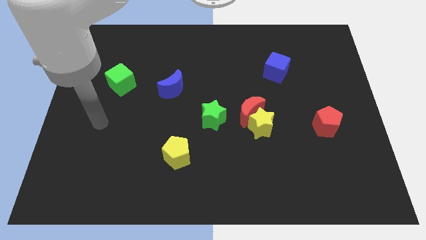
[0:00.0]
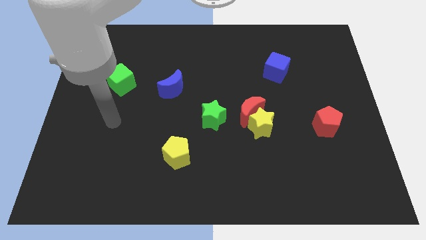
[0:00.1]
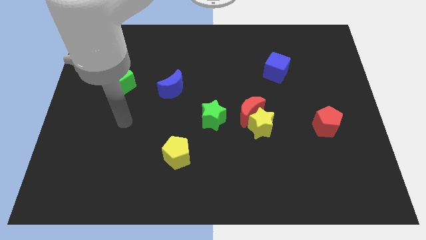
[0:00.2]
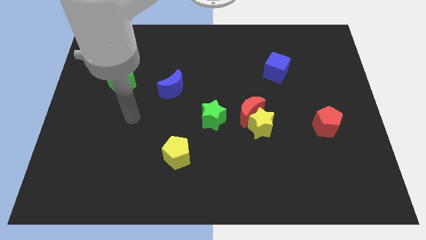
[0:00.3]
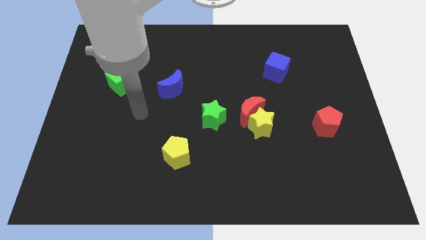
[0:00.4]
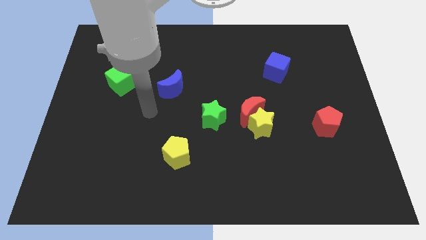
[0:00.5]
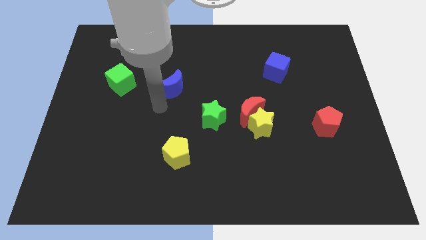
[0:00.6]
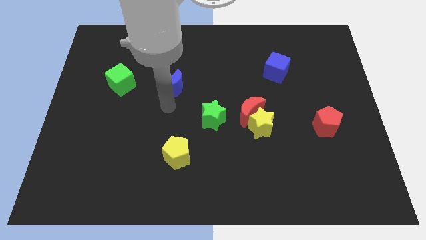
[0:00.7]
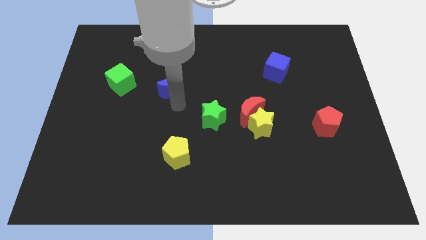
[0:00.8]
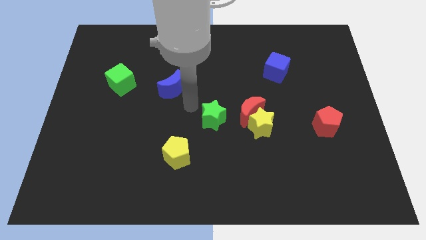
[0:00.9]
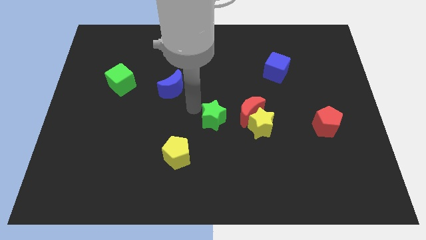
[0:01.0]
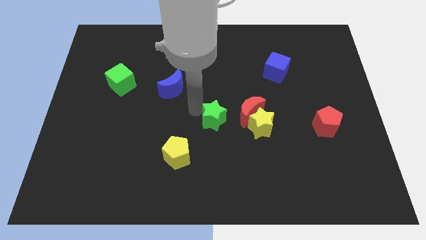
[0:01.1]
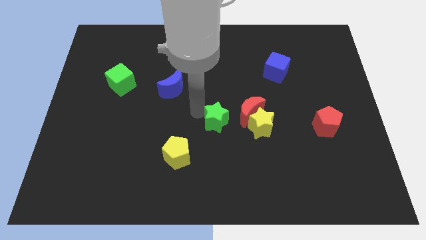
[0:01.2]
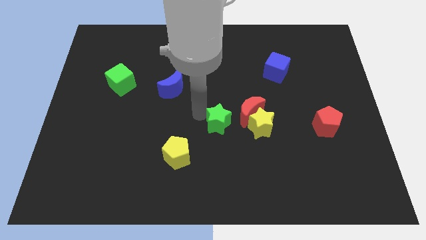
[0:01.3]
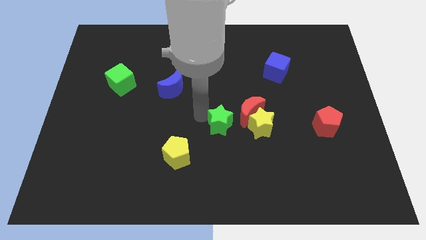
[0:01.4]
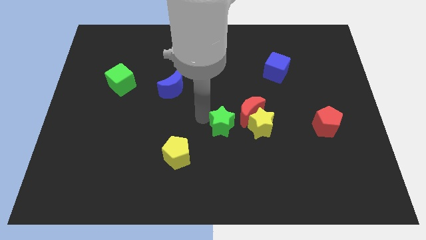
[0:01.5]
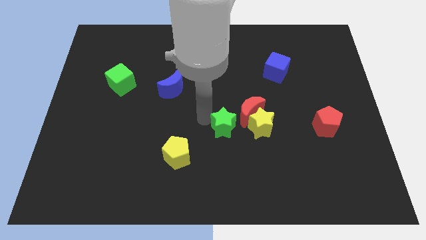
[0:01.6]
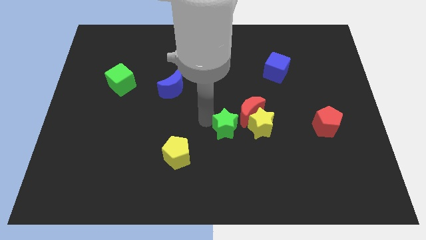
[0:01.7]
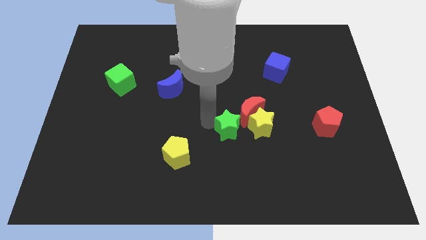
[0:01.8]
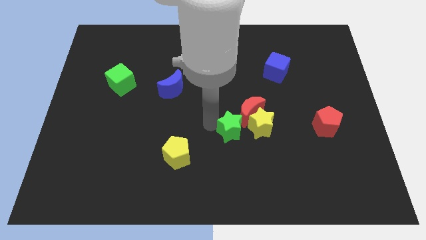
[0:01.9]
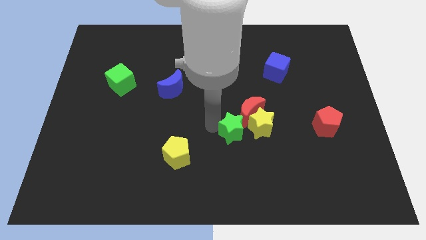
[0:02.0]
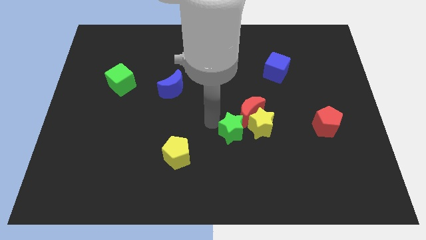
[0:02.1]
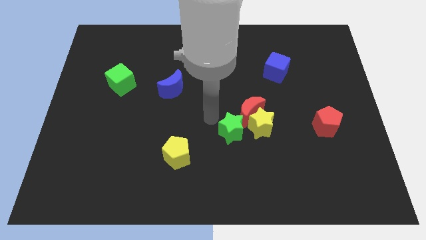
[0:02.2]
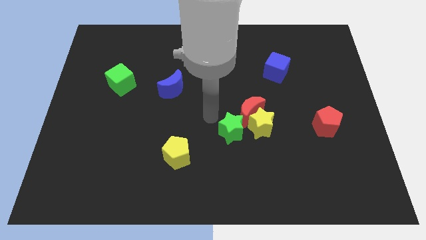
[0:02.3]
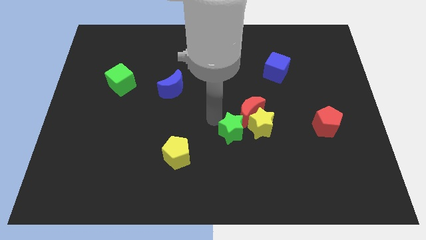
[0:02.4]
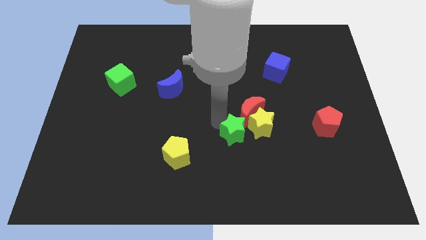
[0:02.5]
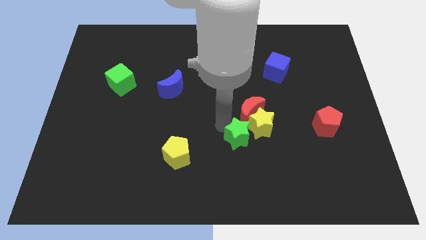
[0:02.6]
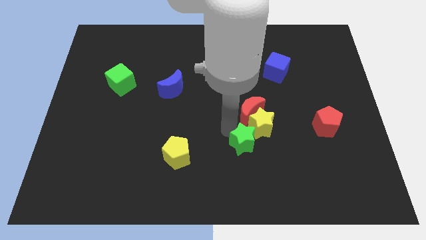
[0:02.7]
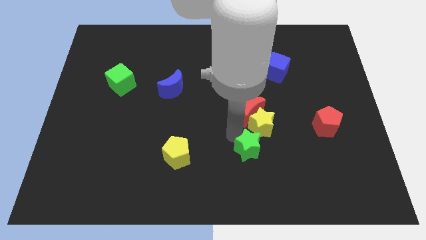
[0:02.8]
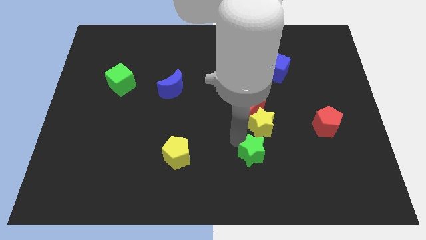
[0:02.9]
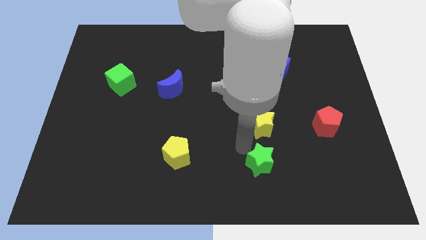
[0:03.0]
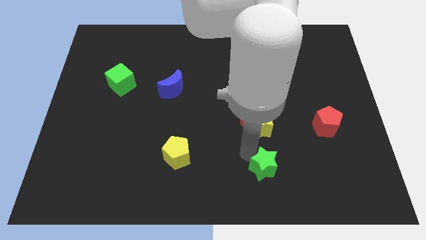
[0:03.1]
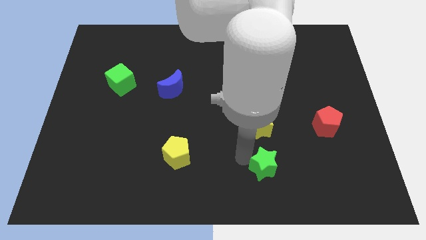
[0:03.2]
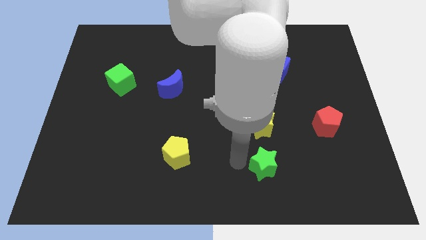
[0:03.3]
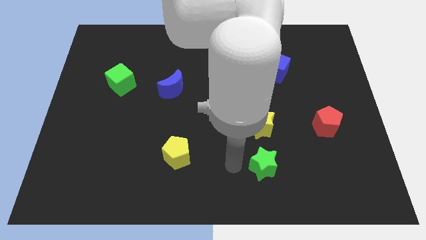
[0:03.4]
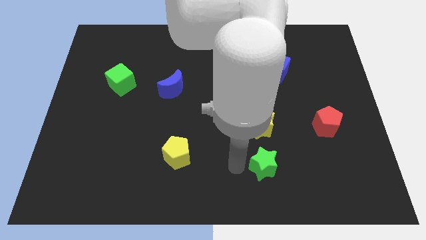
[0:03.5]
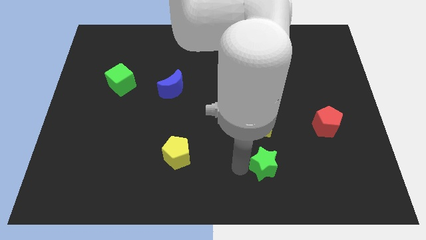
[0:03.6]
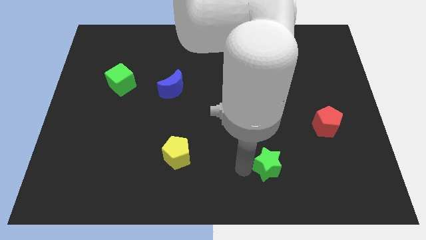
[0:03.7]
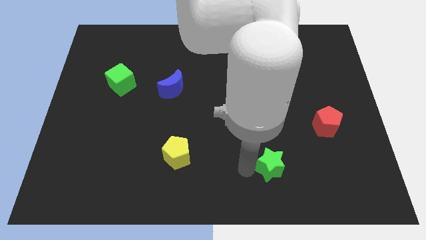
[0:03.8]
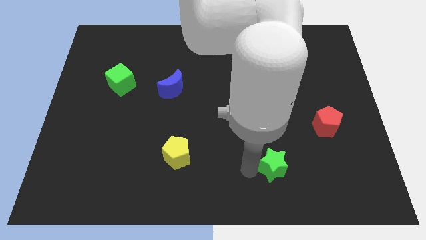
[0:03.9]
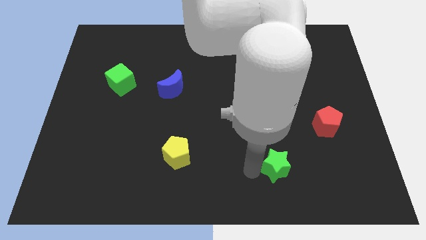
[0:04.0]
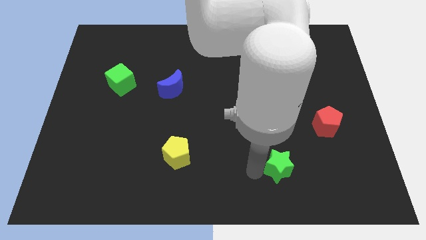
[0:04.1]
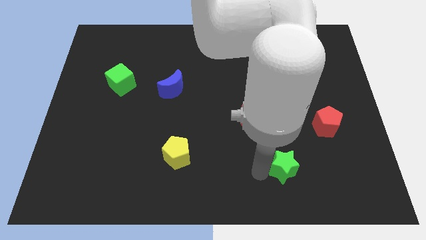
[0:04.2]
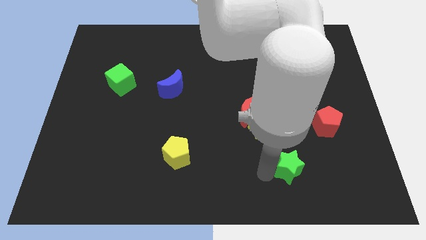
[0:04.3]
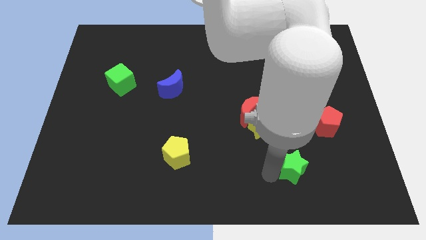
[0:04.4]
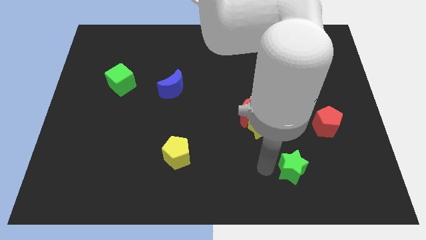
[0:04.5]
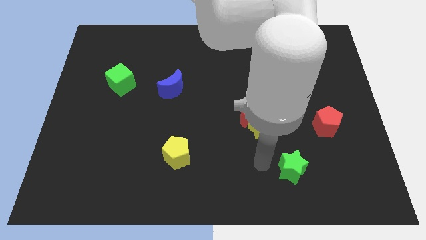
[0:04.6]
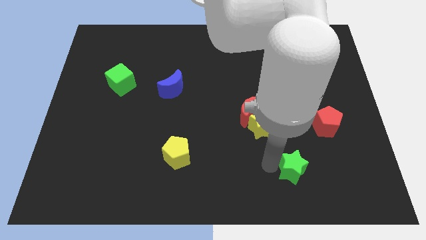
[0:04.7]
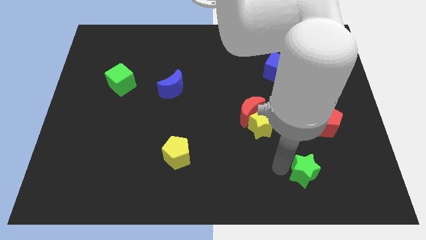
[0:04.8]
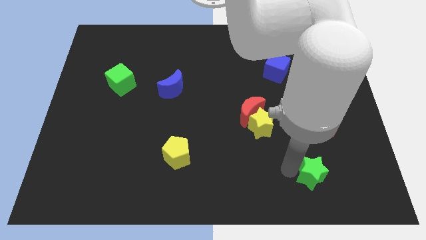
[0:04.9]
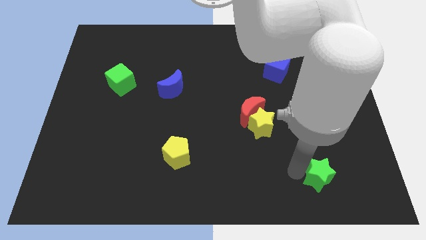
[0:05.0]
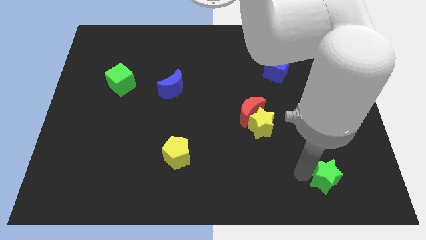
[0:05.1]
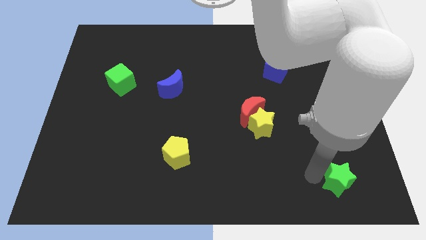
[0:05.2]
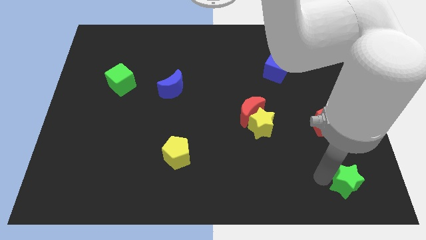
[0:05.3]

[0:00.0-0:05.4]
move the green star to the bottom right corner

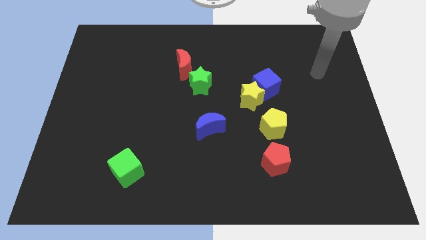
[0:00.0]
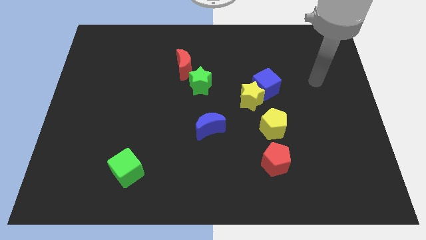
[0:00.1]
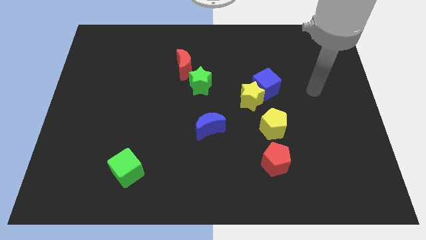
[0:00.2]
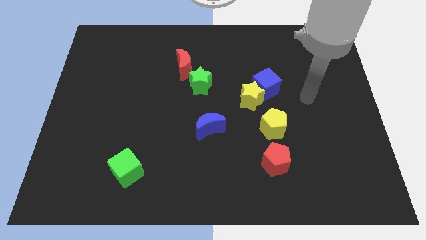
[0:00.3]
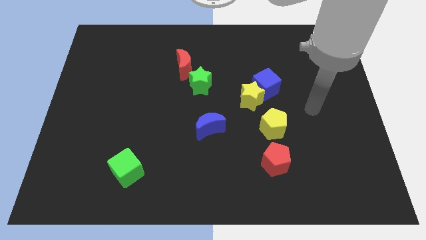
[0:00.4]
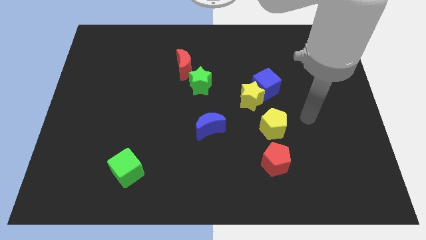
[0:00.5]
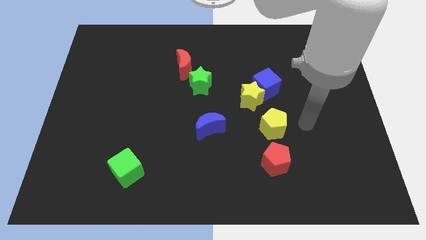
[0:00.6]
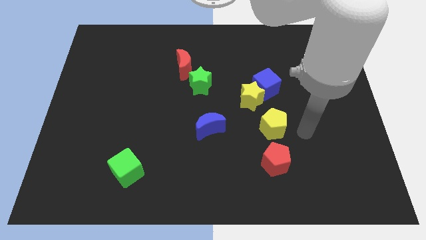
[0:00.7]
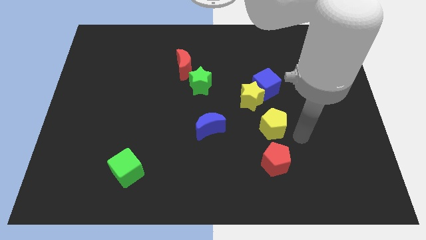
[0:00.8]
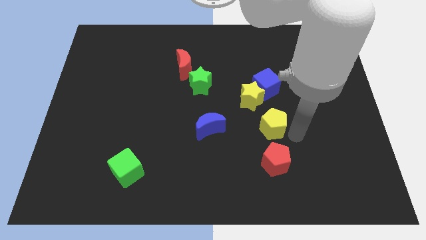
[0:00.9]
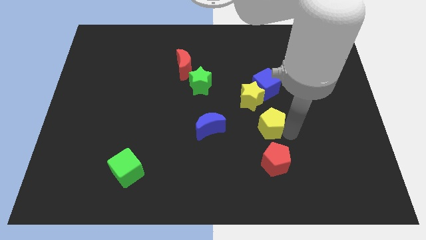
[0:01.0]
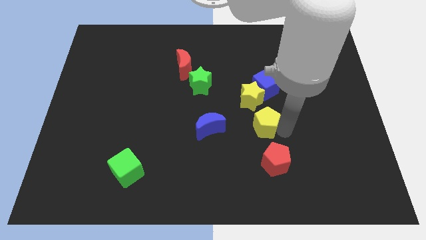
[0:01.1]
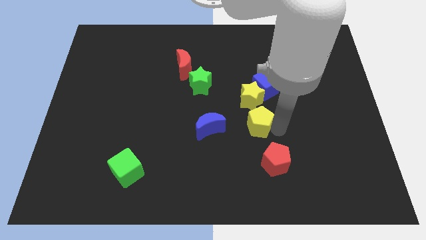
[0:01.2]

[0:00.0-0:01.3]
push the yellow pentagon to the center of the board
